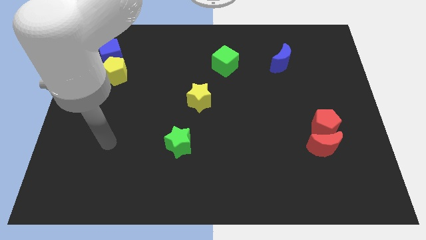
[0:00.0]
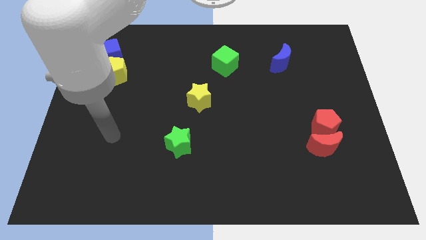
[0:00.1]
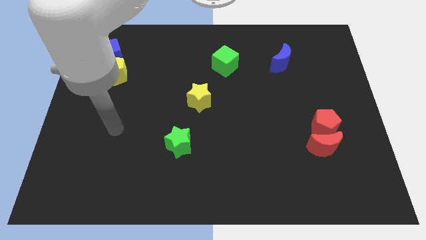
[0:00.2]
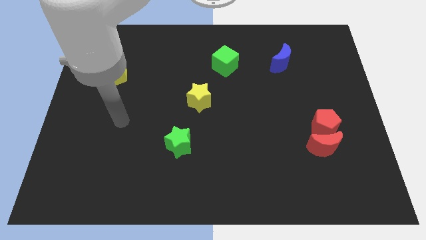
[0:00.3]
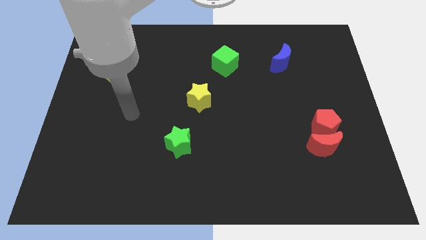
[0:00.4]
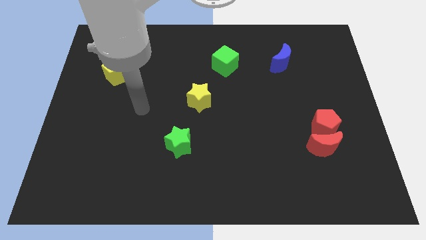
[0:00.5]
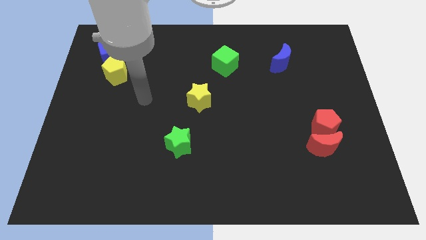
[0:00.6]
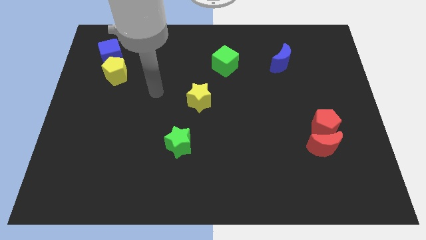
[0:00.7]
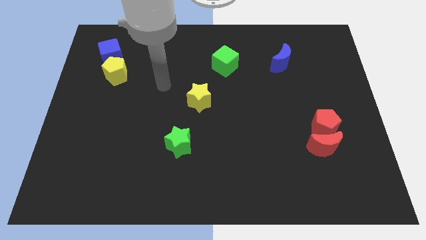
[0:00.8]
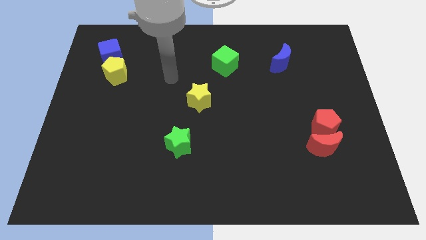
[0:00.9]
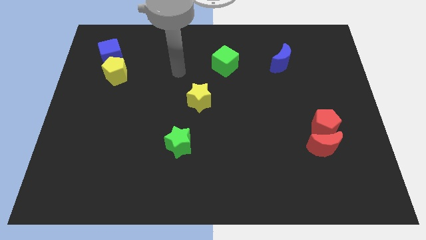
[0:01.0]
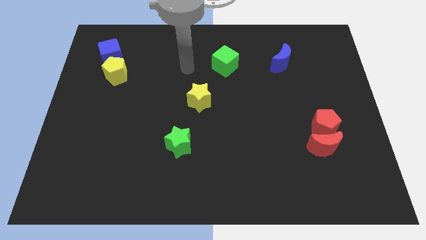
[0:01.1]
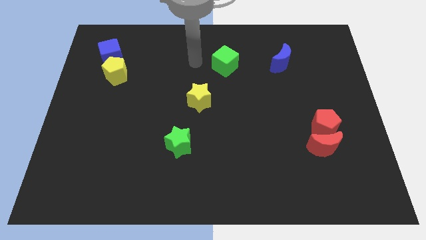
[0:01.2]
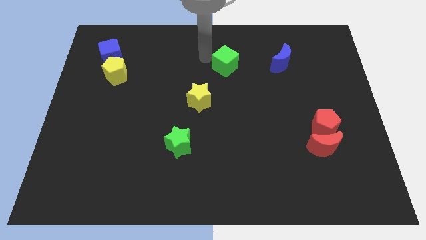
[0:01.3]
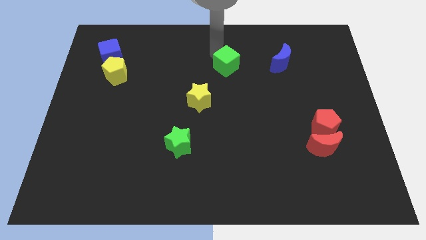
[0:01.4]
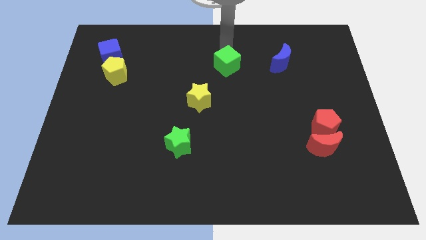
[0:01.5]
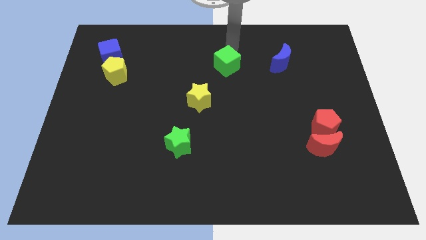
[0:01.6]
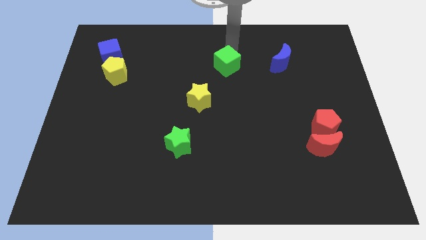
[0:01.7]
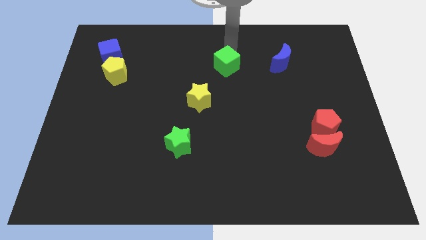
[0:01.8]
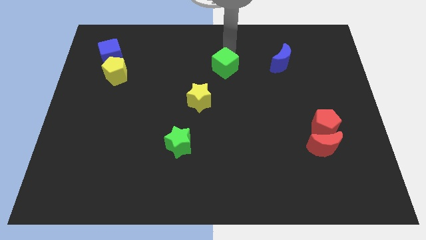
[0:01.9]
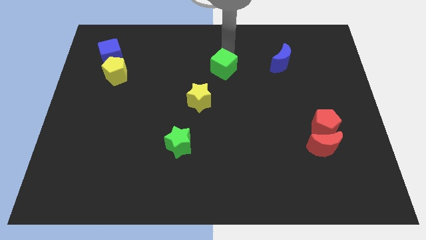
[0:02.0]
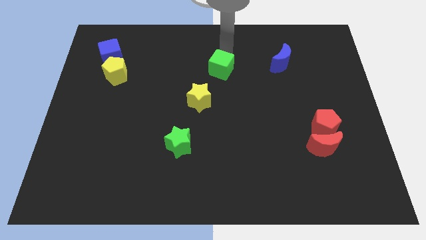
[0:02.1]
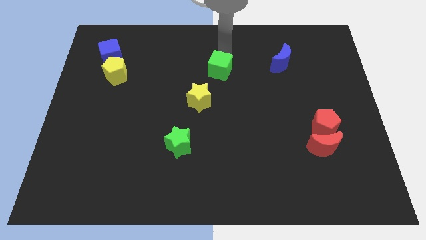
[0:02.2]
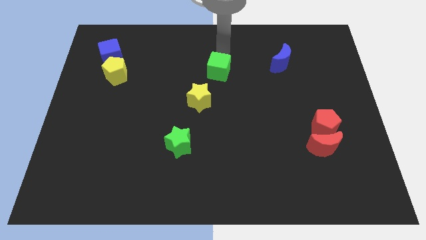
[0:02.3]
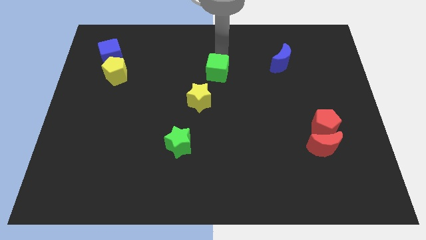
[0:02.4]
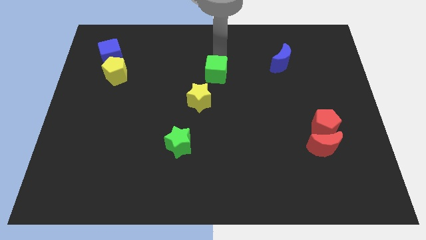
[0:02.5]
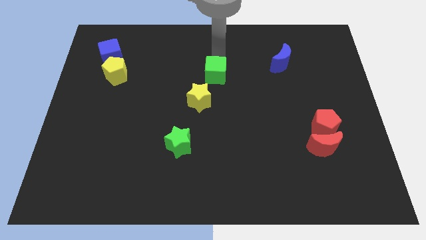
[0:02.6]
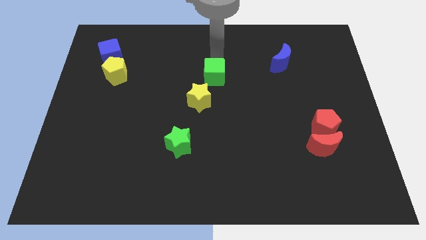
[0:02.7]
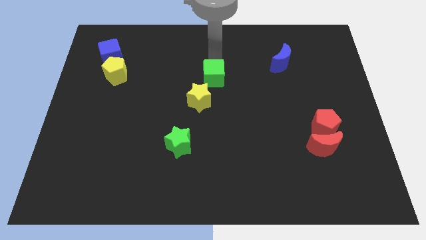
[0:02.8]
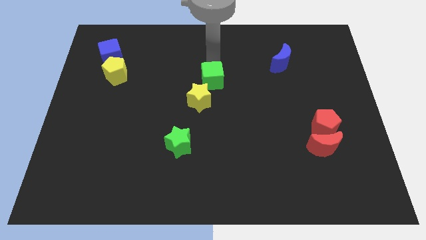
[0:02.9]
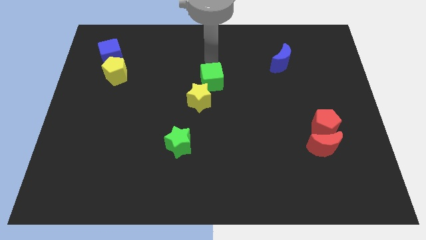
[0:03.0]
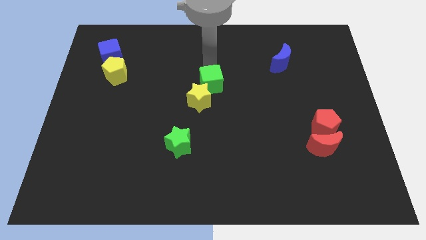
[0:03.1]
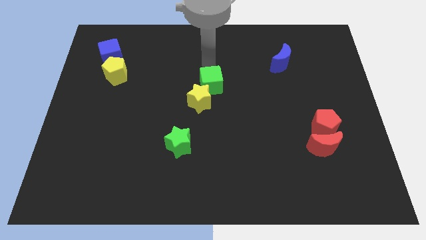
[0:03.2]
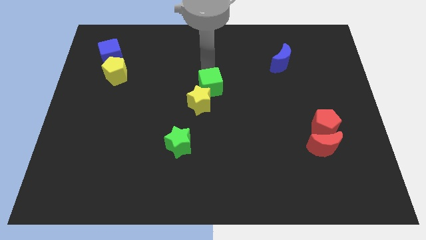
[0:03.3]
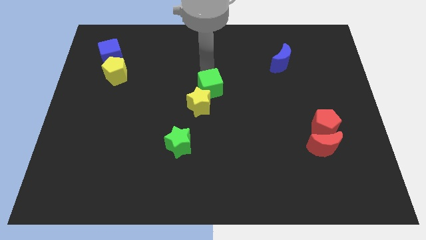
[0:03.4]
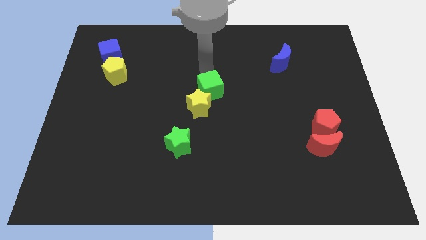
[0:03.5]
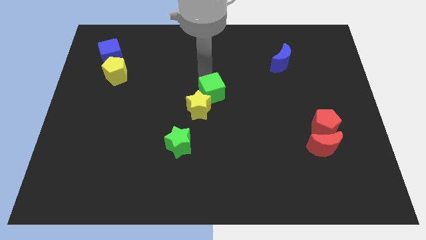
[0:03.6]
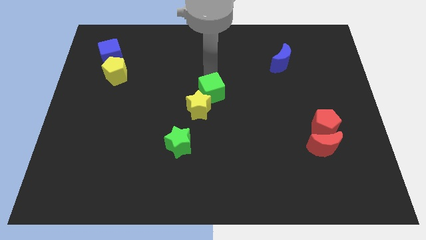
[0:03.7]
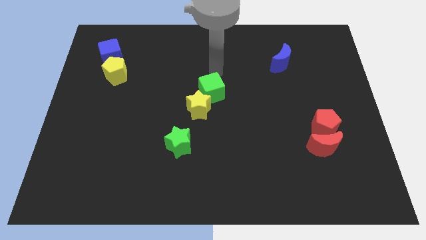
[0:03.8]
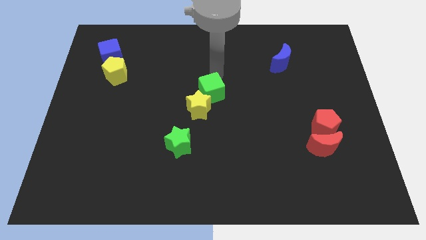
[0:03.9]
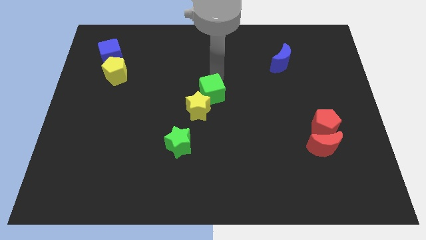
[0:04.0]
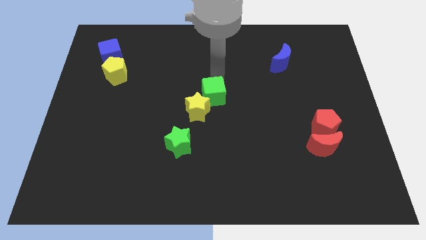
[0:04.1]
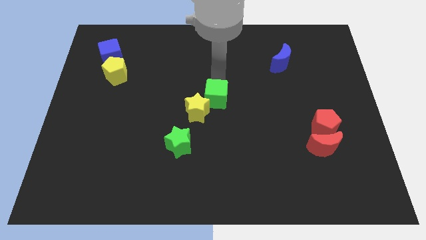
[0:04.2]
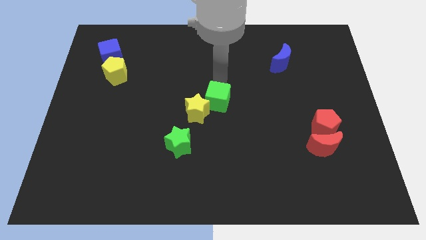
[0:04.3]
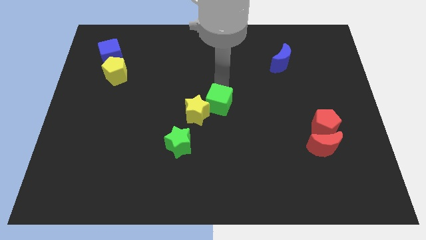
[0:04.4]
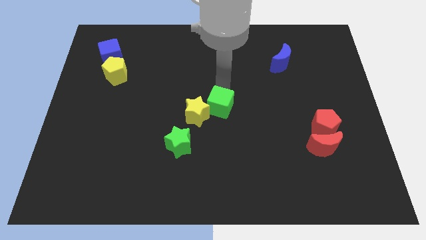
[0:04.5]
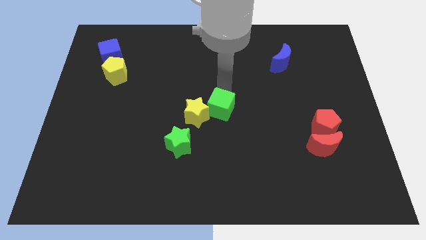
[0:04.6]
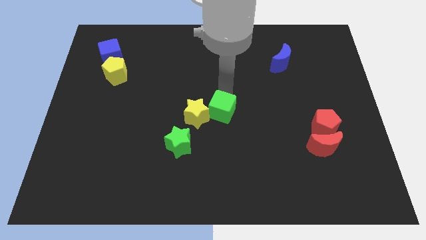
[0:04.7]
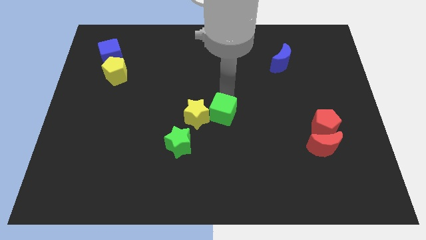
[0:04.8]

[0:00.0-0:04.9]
push the green cube to the top right side of the green star

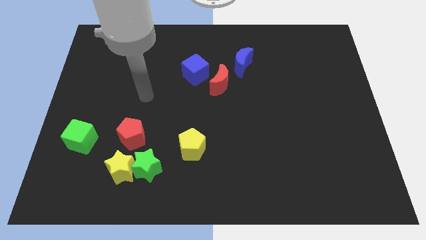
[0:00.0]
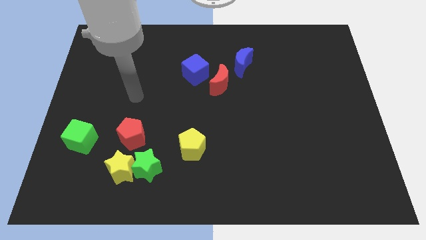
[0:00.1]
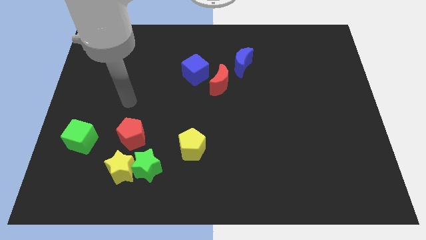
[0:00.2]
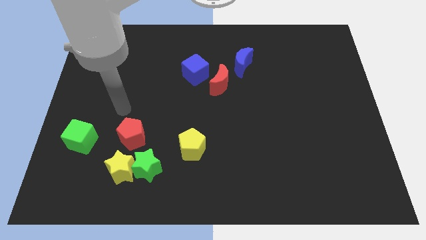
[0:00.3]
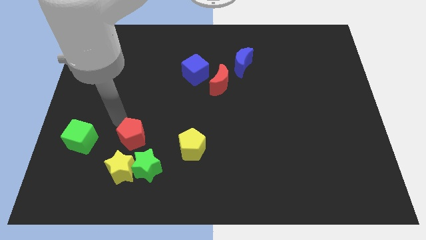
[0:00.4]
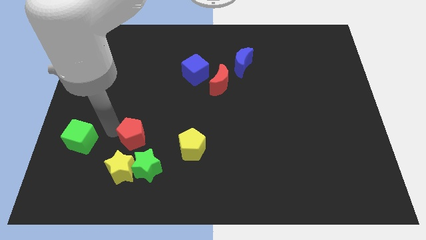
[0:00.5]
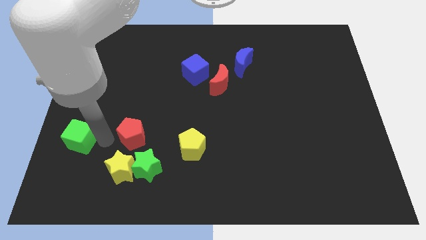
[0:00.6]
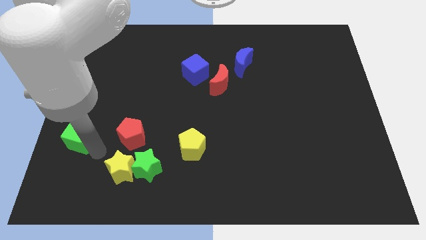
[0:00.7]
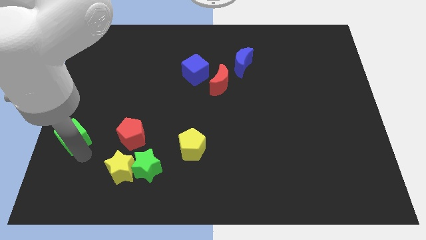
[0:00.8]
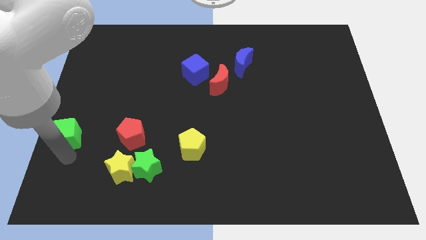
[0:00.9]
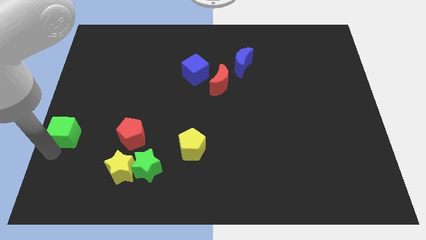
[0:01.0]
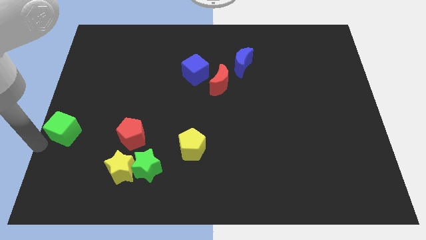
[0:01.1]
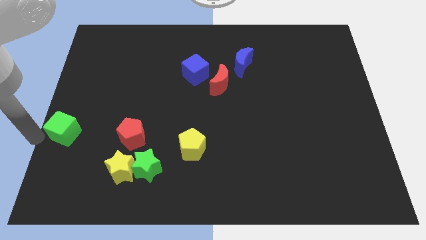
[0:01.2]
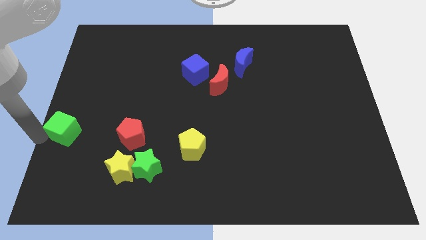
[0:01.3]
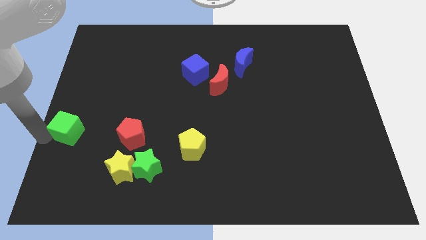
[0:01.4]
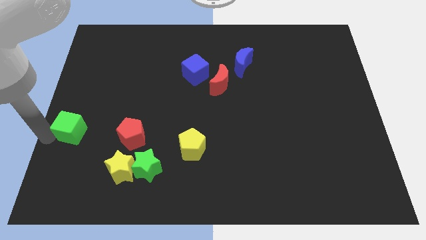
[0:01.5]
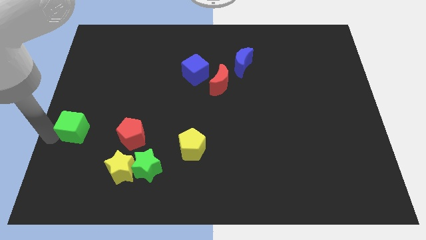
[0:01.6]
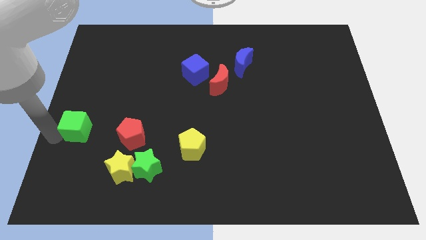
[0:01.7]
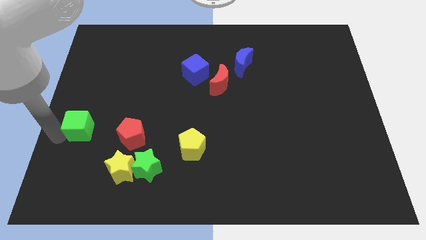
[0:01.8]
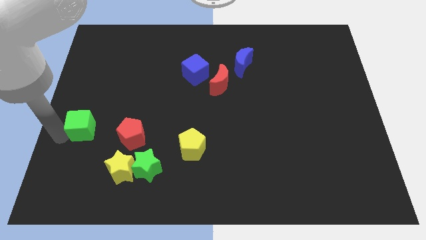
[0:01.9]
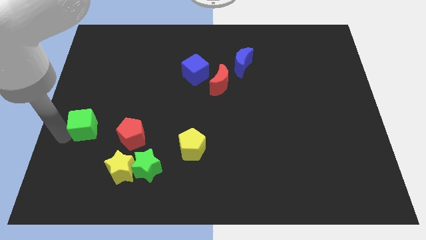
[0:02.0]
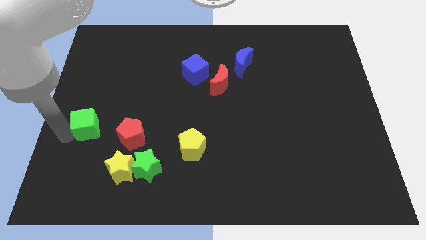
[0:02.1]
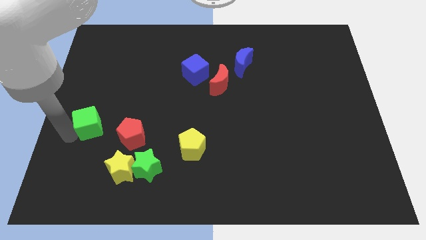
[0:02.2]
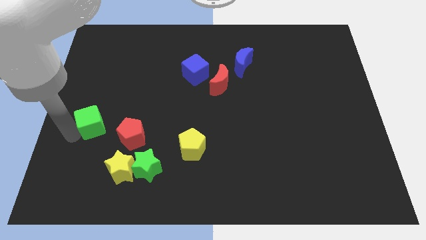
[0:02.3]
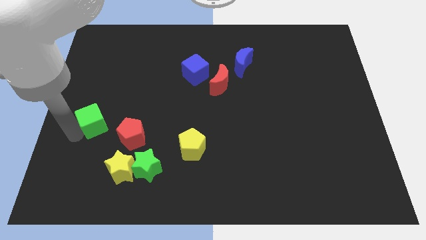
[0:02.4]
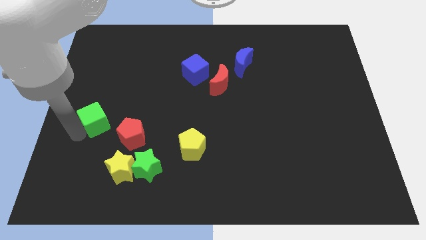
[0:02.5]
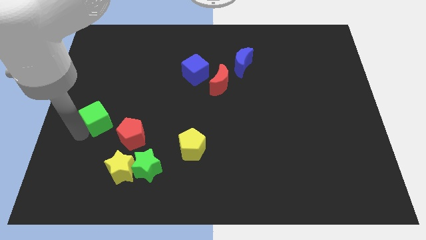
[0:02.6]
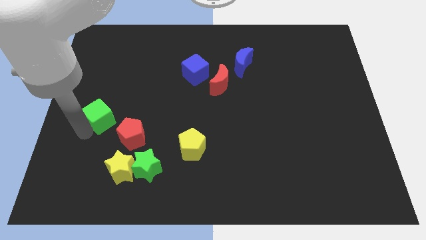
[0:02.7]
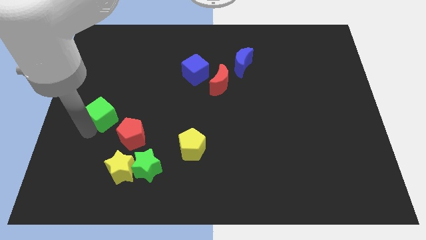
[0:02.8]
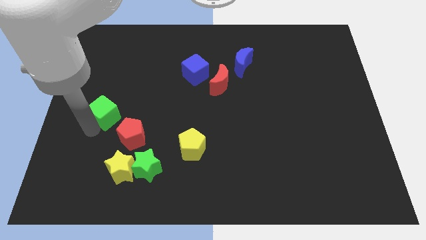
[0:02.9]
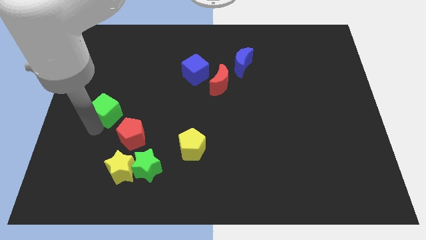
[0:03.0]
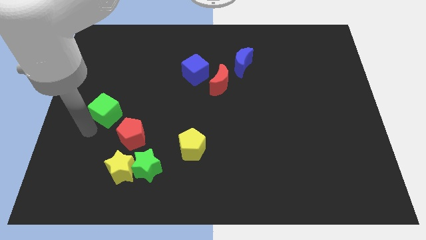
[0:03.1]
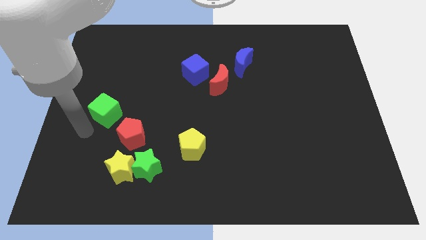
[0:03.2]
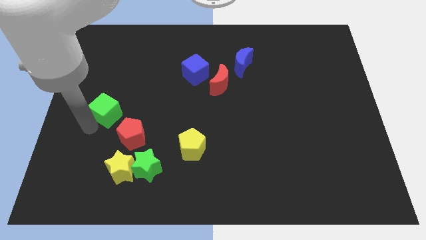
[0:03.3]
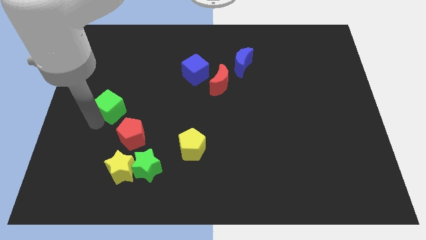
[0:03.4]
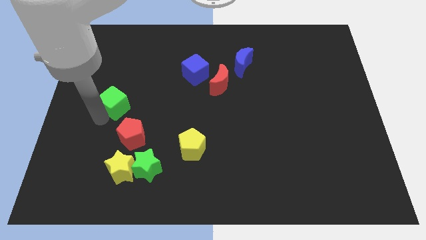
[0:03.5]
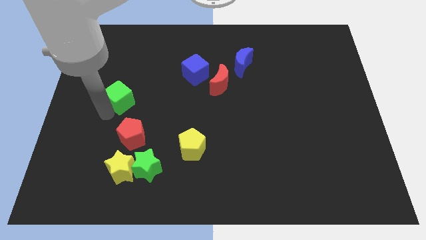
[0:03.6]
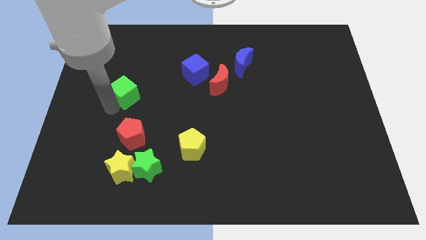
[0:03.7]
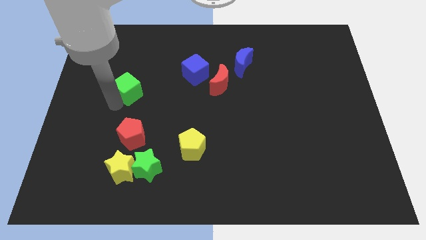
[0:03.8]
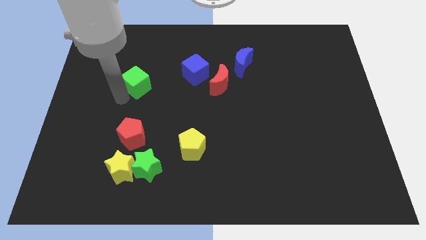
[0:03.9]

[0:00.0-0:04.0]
push the green cube to the left of the blue cube
